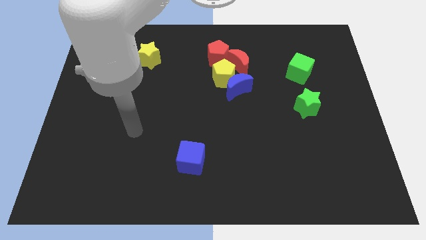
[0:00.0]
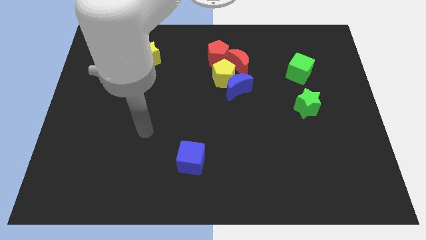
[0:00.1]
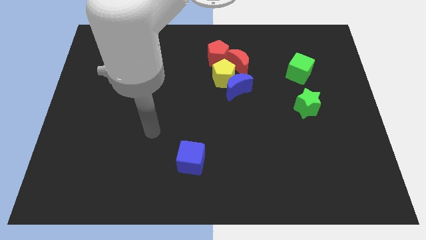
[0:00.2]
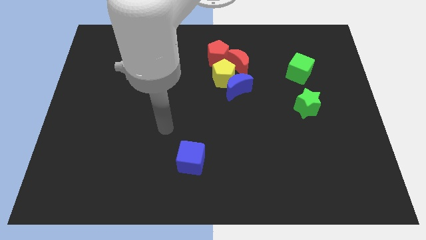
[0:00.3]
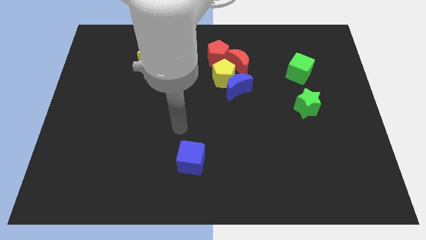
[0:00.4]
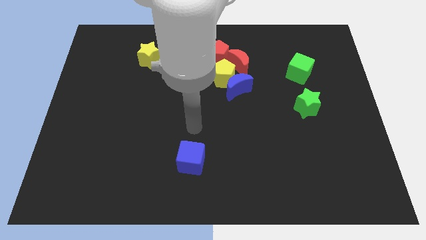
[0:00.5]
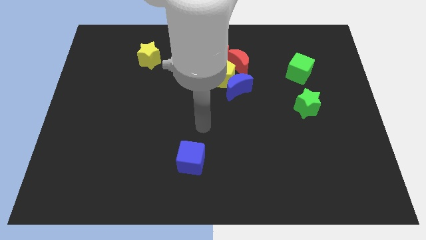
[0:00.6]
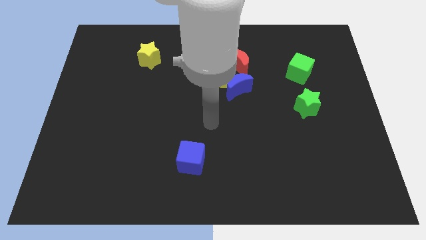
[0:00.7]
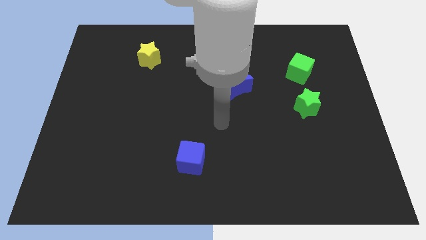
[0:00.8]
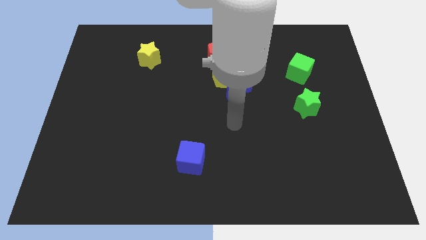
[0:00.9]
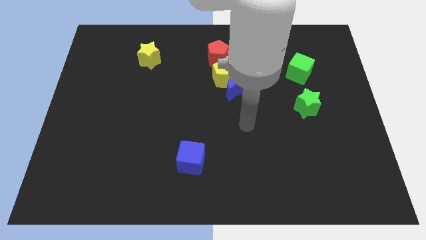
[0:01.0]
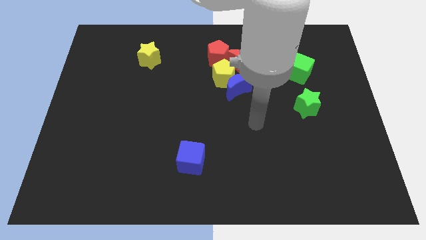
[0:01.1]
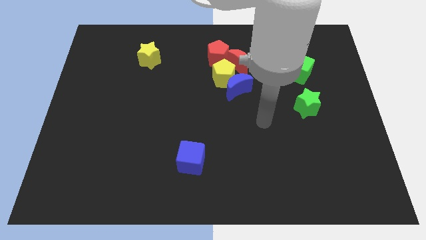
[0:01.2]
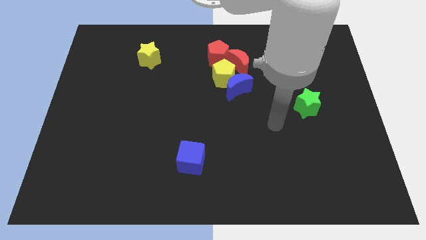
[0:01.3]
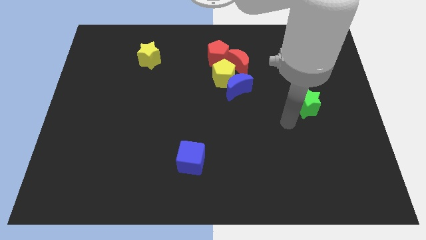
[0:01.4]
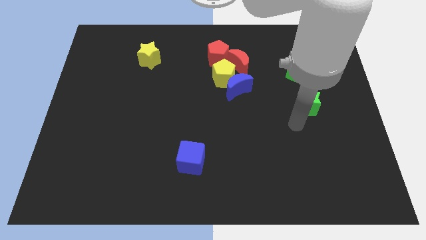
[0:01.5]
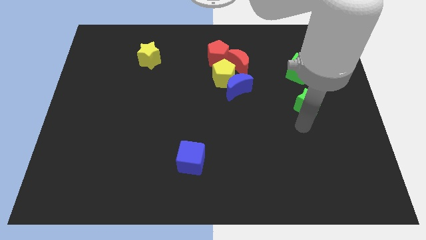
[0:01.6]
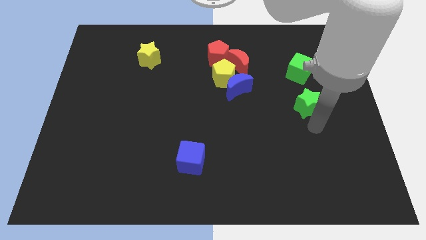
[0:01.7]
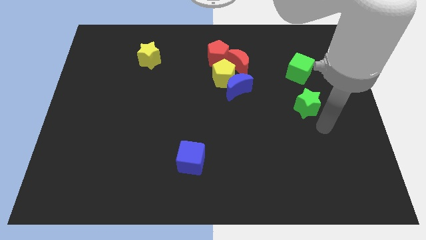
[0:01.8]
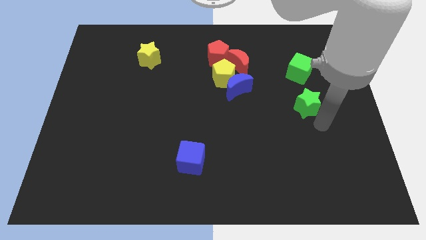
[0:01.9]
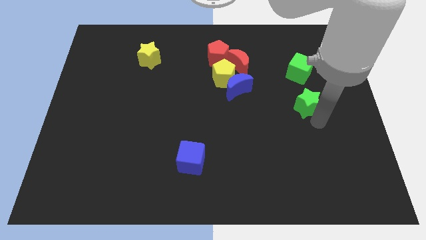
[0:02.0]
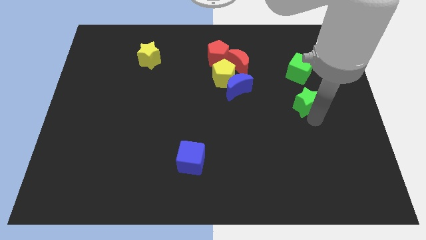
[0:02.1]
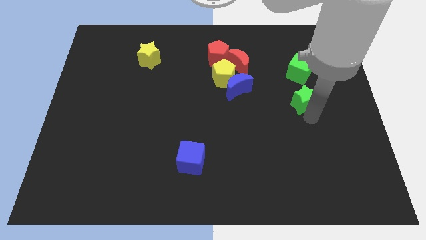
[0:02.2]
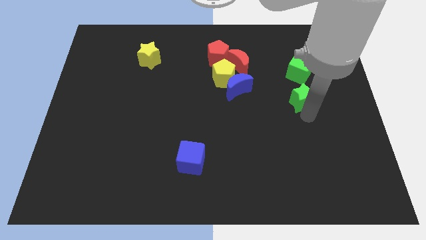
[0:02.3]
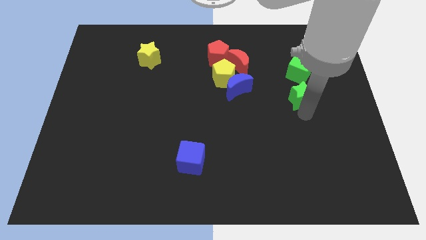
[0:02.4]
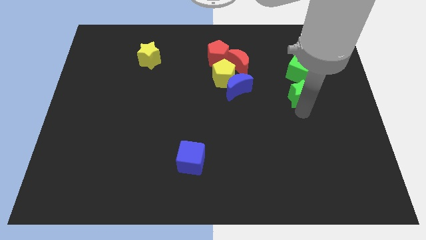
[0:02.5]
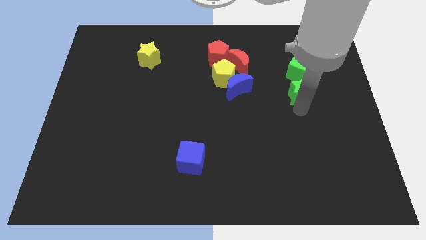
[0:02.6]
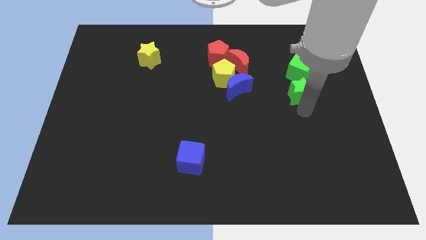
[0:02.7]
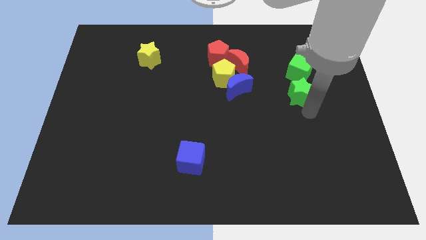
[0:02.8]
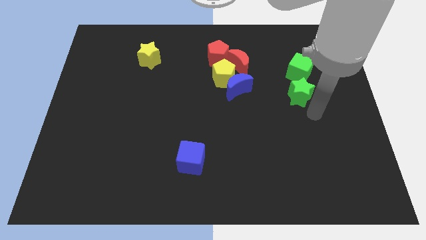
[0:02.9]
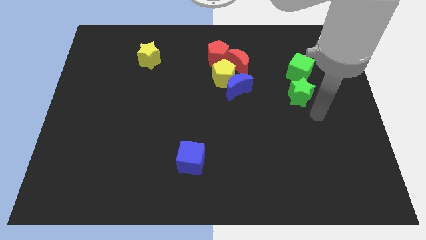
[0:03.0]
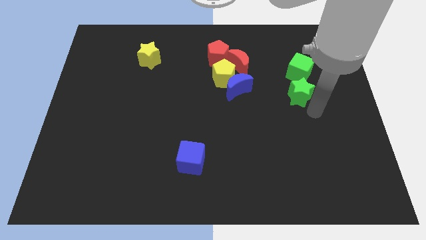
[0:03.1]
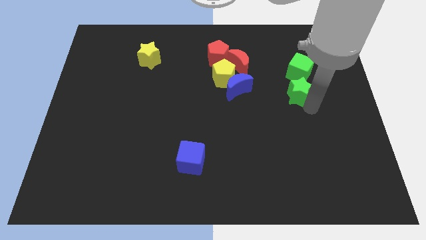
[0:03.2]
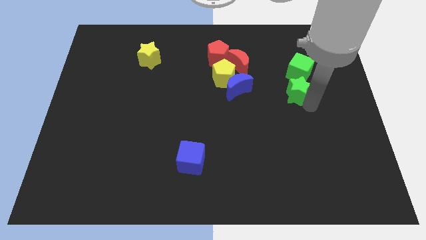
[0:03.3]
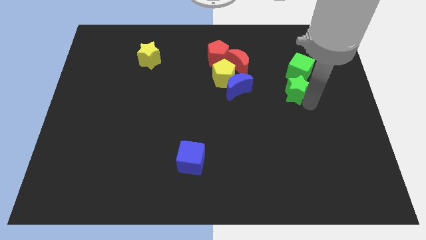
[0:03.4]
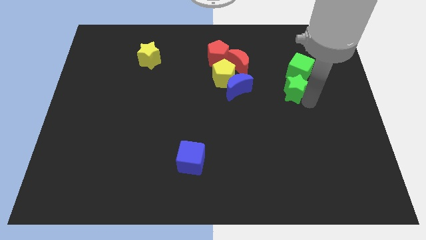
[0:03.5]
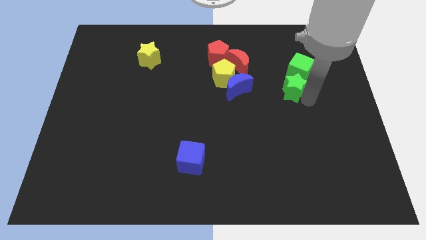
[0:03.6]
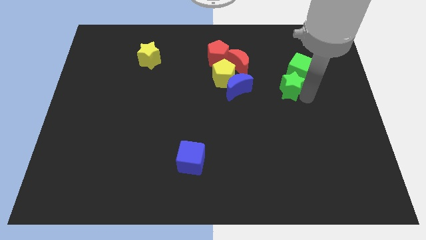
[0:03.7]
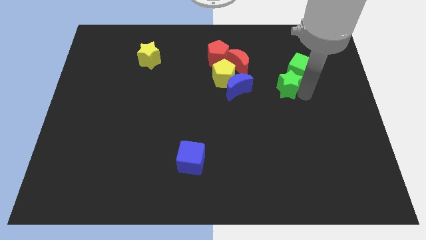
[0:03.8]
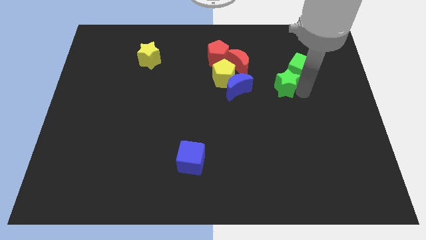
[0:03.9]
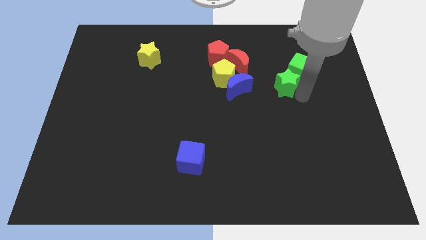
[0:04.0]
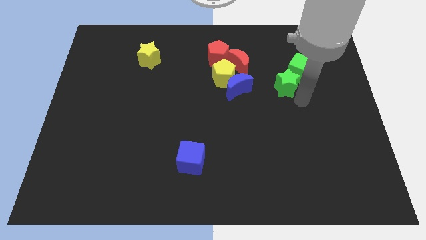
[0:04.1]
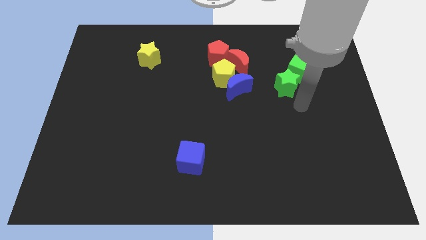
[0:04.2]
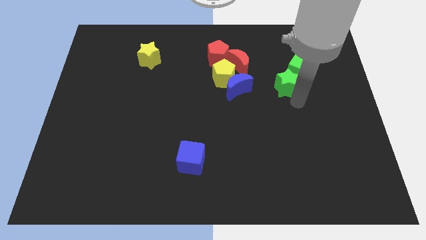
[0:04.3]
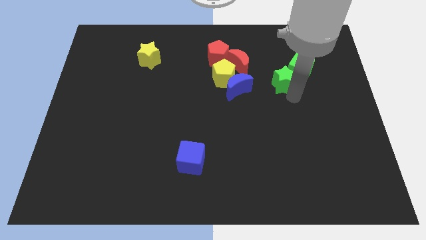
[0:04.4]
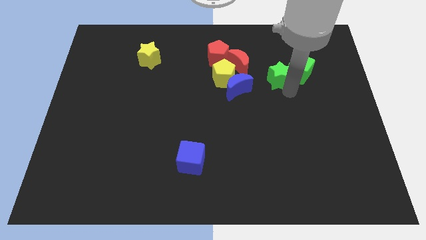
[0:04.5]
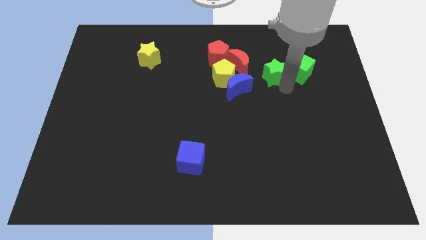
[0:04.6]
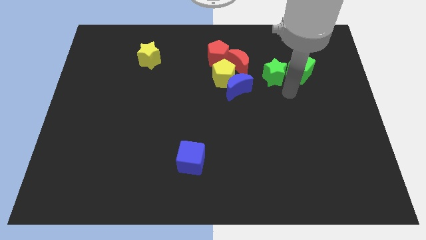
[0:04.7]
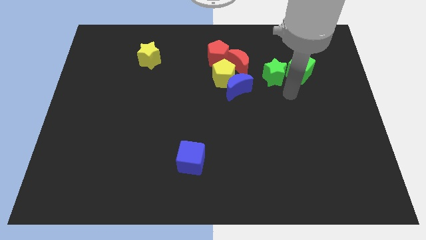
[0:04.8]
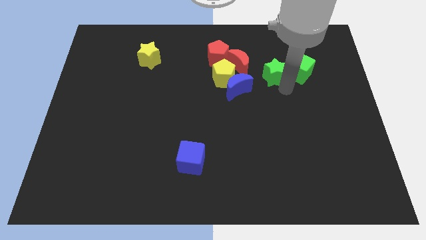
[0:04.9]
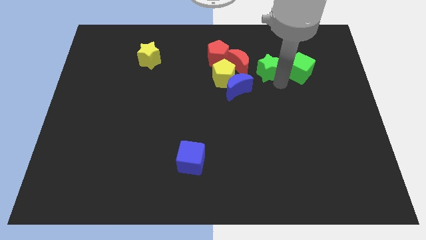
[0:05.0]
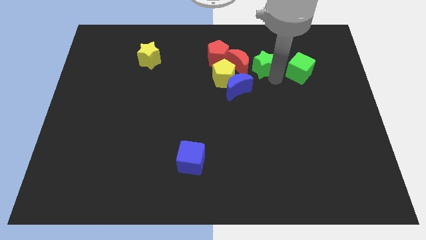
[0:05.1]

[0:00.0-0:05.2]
put the green star to the right of the red pentagon

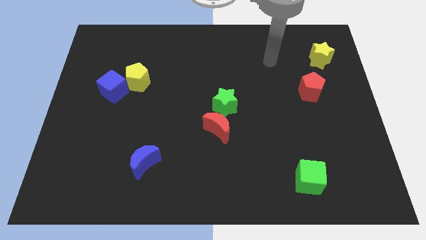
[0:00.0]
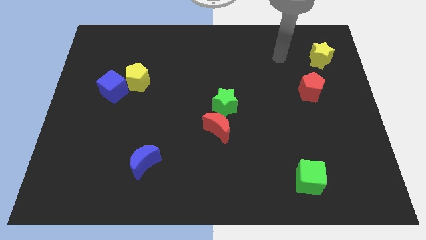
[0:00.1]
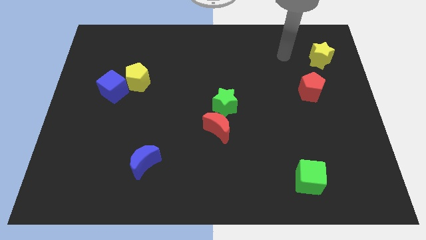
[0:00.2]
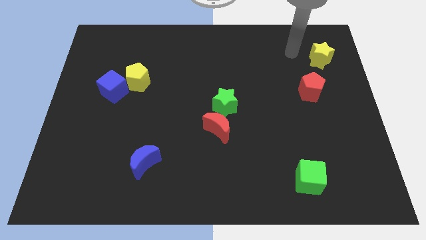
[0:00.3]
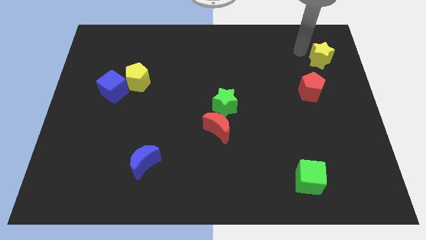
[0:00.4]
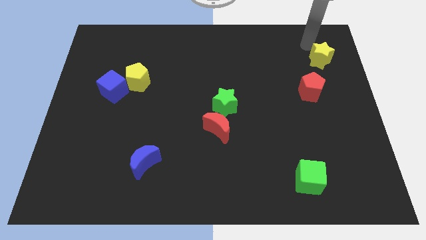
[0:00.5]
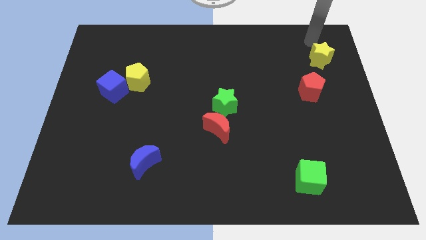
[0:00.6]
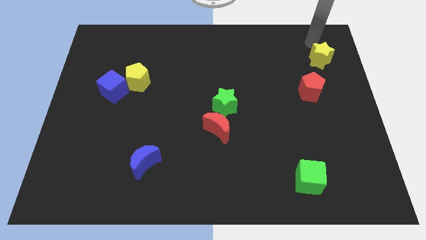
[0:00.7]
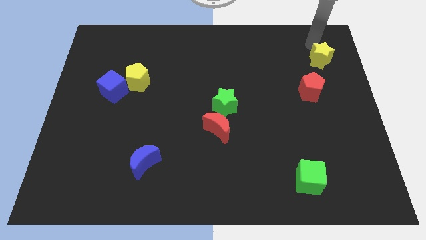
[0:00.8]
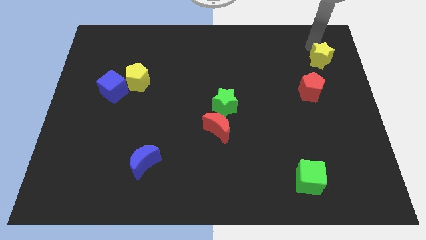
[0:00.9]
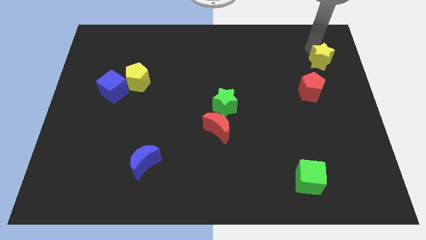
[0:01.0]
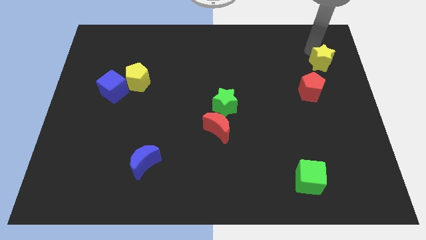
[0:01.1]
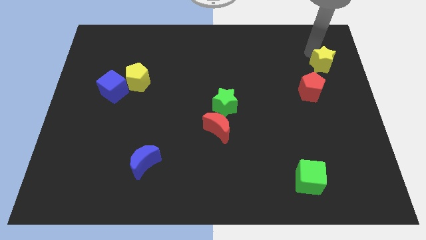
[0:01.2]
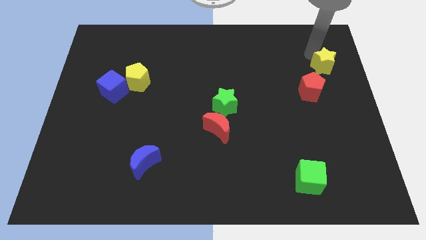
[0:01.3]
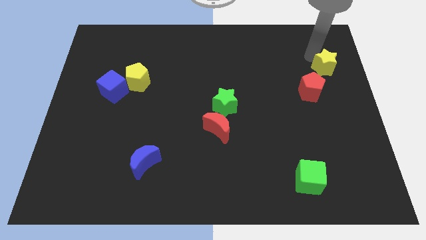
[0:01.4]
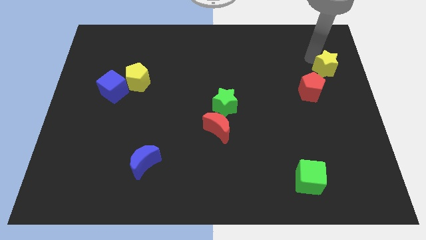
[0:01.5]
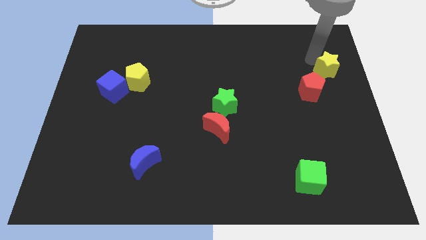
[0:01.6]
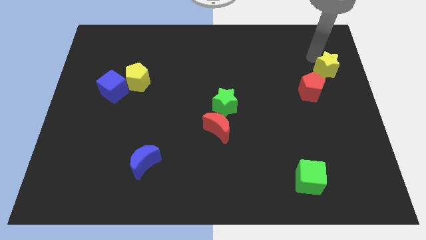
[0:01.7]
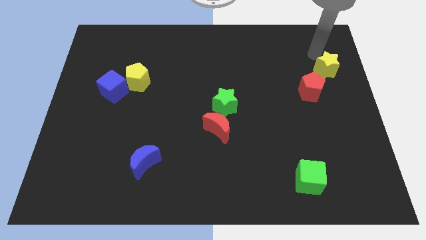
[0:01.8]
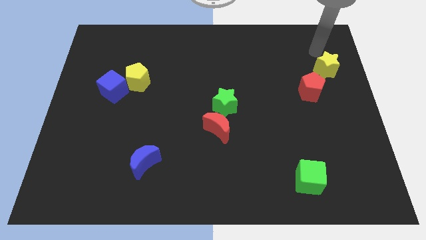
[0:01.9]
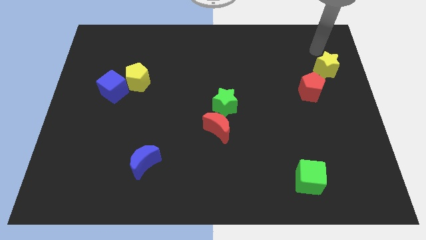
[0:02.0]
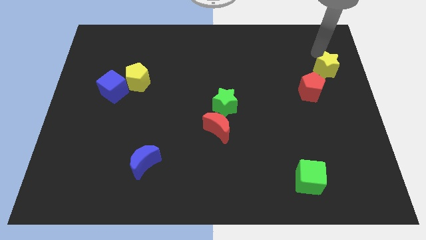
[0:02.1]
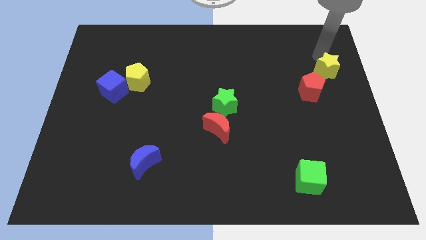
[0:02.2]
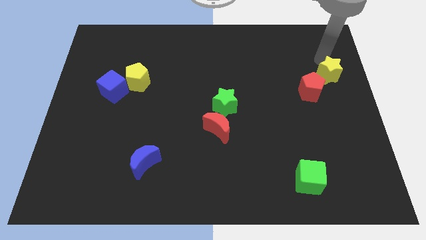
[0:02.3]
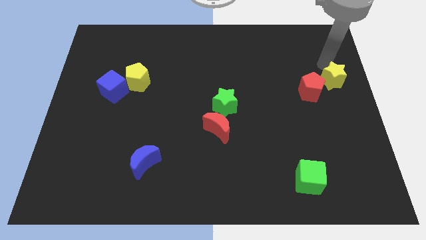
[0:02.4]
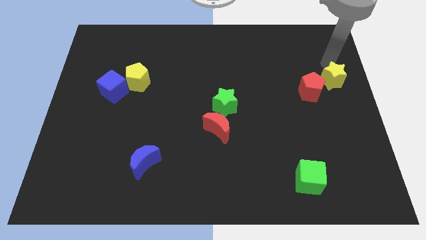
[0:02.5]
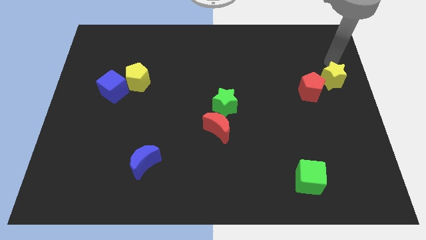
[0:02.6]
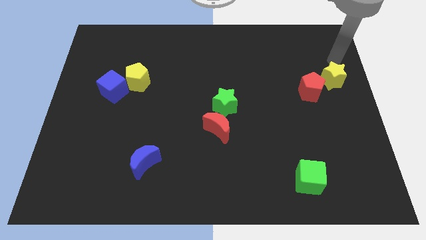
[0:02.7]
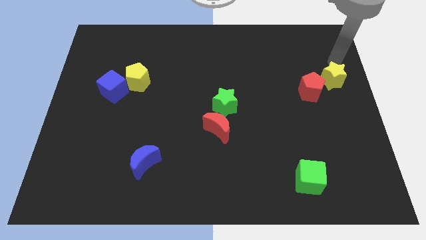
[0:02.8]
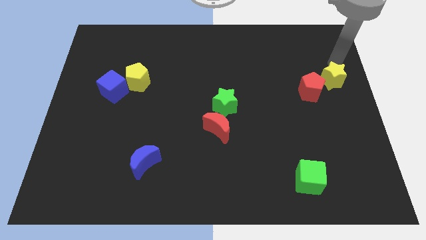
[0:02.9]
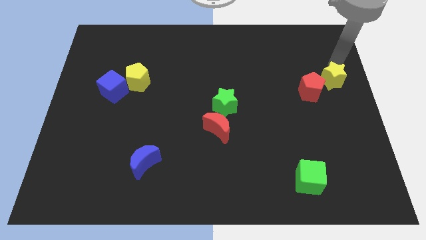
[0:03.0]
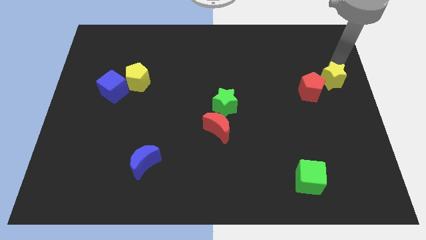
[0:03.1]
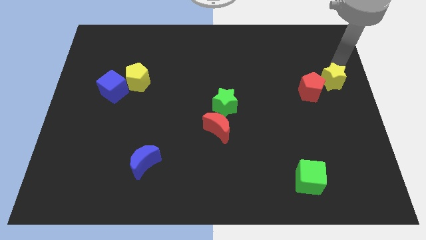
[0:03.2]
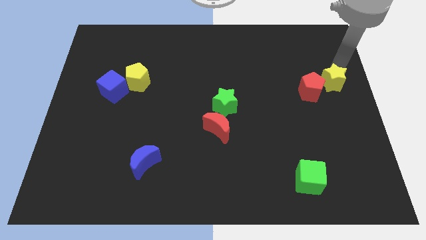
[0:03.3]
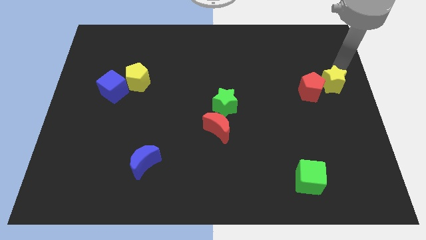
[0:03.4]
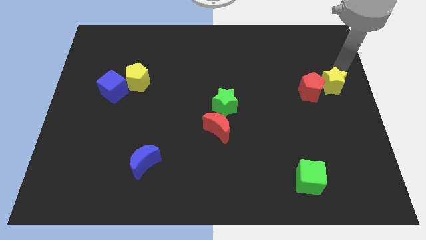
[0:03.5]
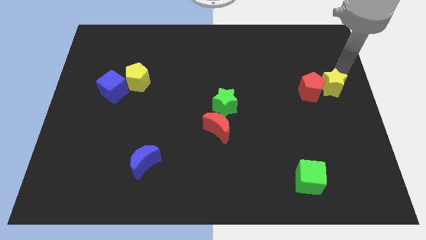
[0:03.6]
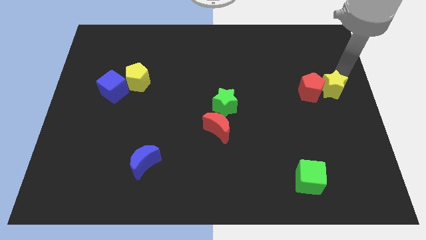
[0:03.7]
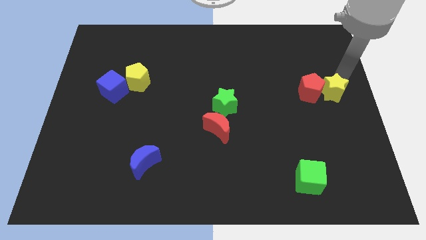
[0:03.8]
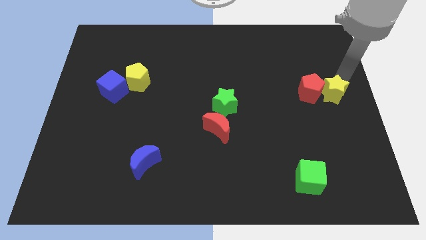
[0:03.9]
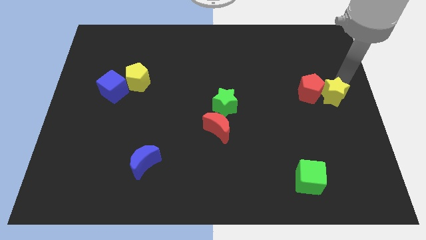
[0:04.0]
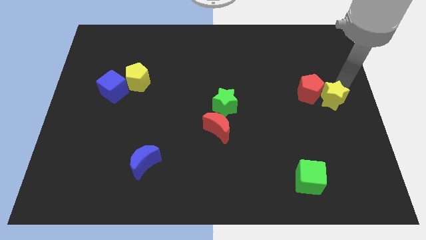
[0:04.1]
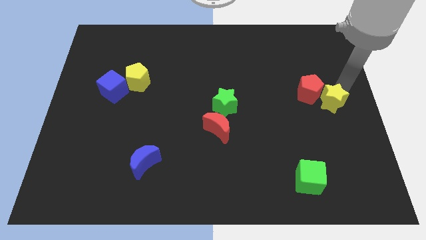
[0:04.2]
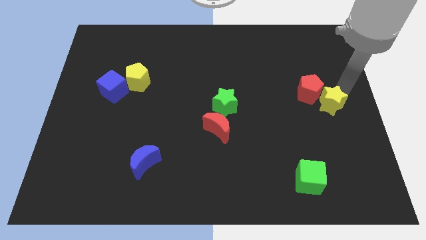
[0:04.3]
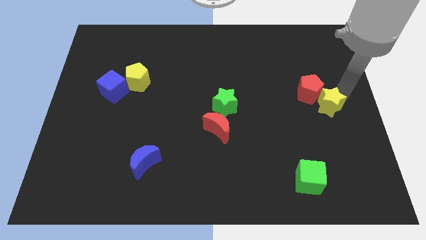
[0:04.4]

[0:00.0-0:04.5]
move the yellow star to the bottom of the red pentagon
